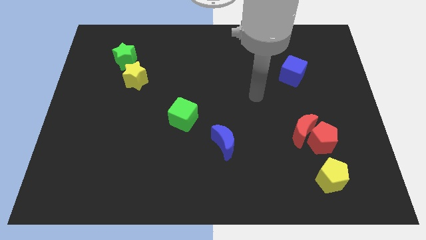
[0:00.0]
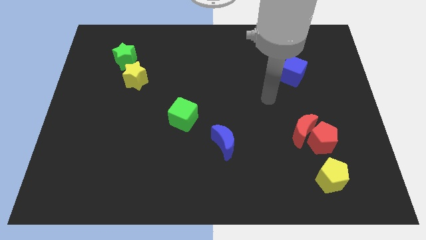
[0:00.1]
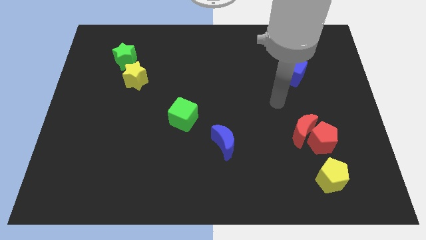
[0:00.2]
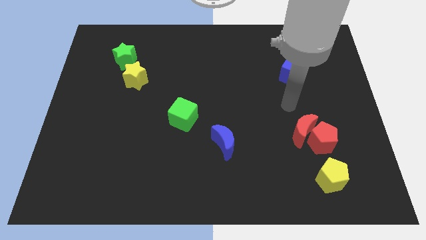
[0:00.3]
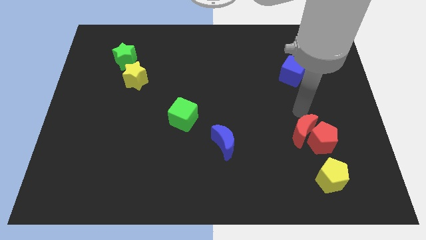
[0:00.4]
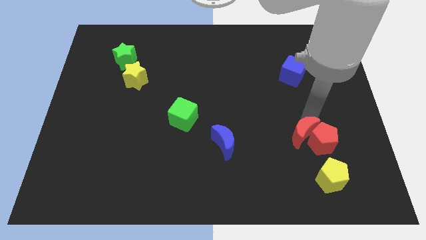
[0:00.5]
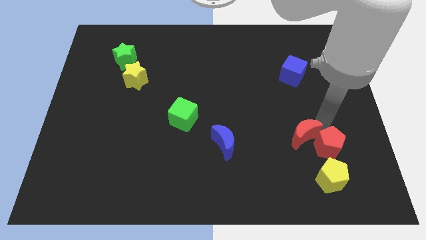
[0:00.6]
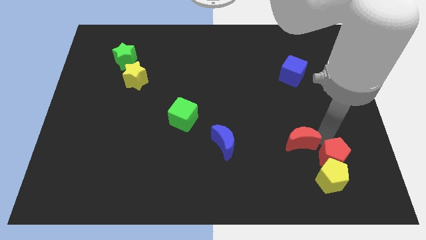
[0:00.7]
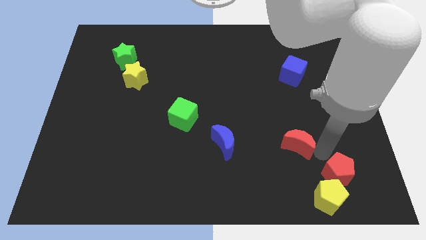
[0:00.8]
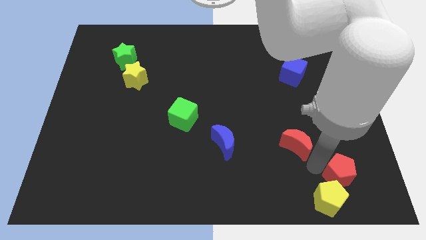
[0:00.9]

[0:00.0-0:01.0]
pull the red moon apart from the red pentagon

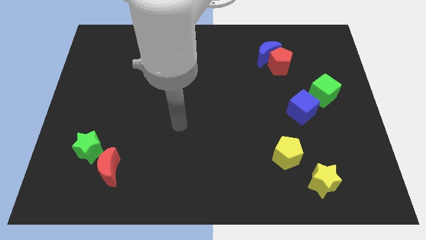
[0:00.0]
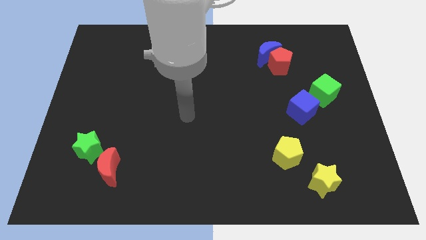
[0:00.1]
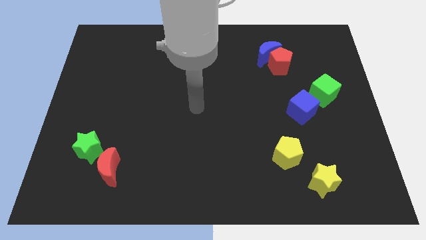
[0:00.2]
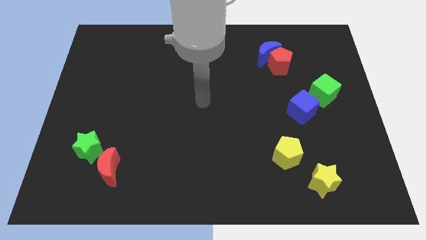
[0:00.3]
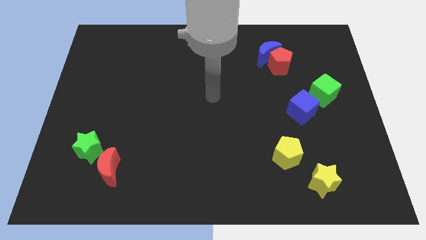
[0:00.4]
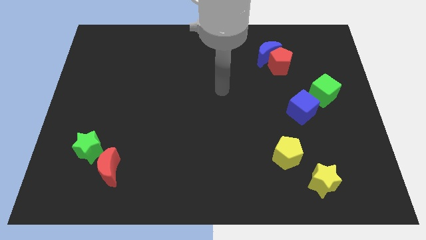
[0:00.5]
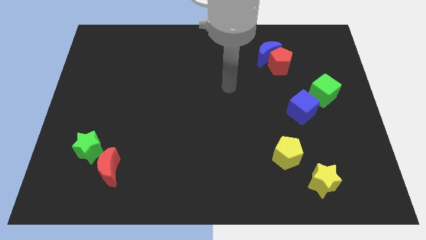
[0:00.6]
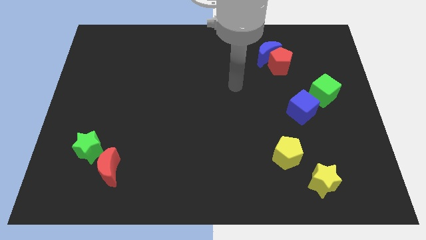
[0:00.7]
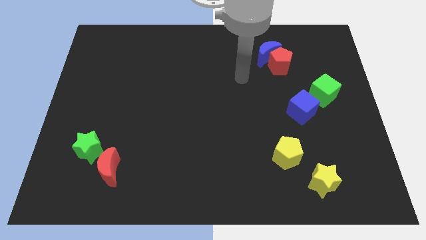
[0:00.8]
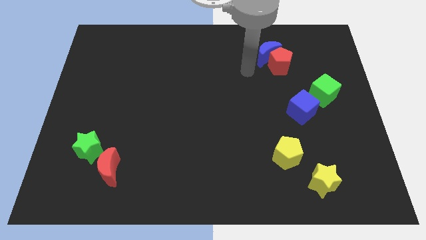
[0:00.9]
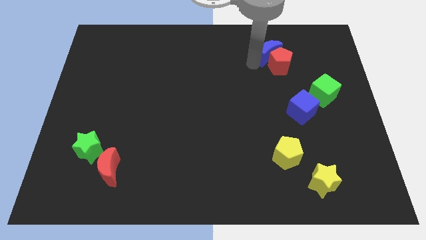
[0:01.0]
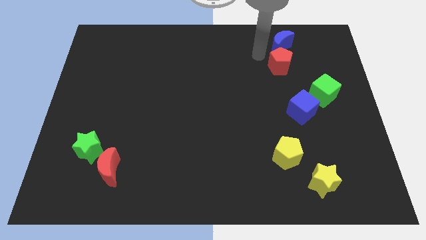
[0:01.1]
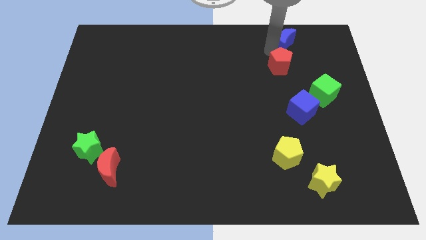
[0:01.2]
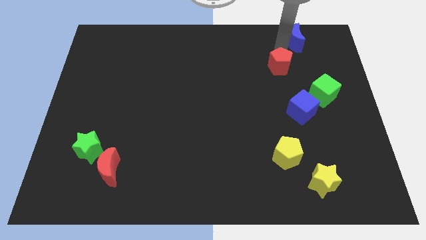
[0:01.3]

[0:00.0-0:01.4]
separate the red pentagon from the blue moon

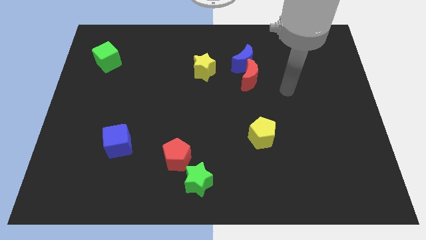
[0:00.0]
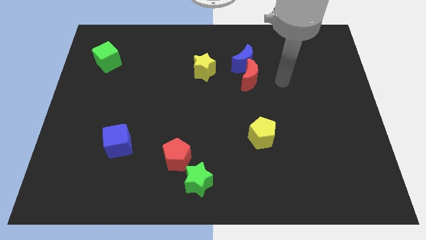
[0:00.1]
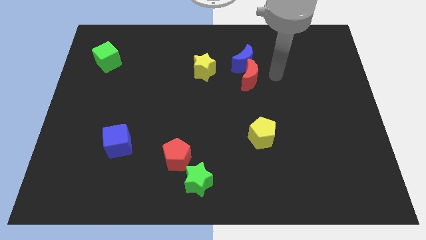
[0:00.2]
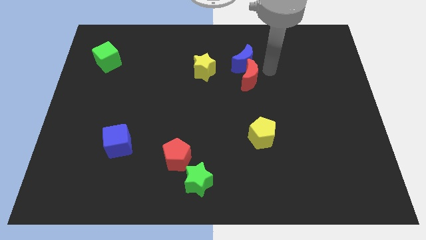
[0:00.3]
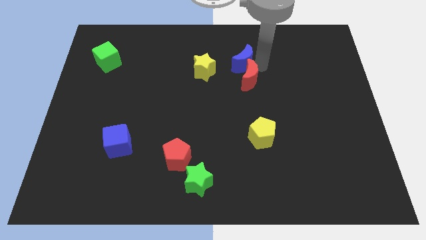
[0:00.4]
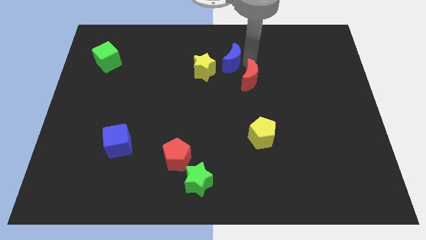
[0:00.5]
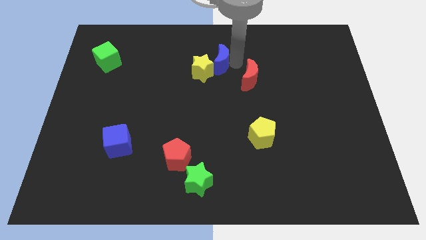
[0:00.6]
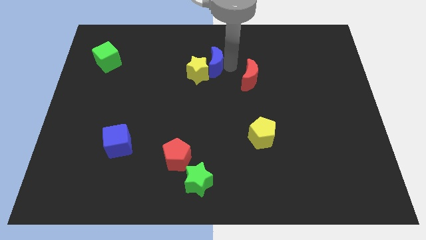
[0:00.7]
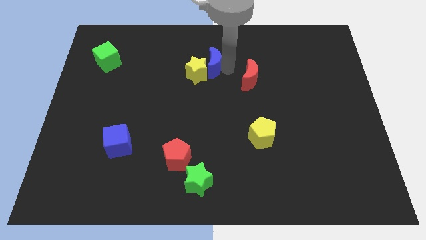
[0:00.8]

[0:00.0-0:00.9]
pull the red moon apart from the blue moon

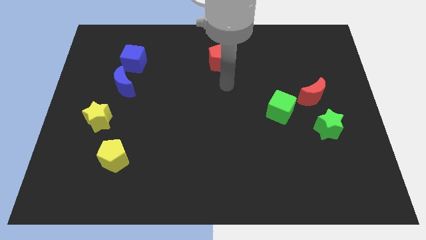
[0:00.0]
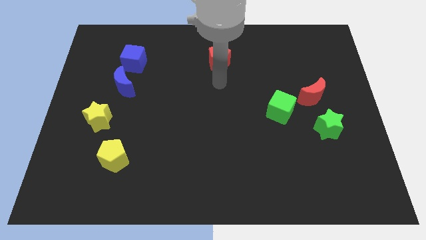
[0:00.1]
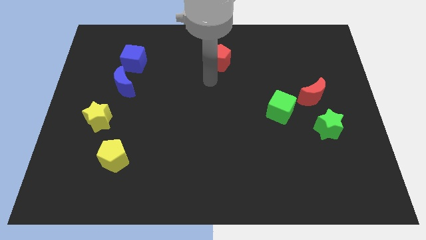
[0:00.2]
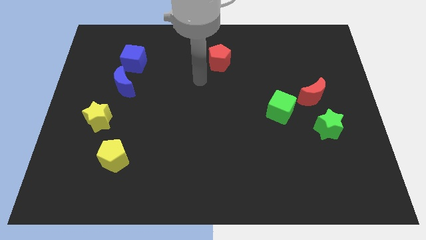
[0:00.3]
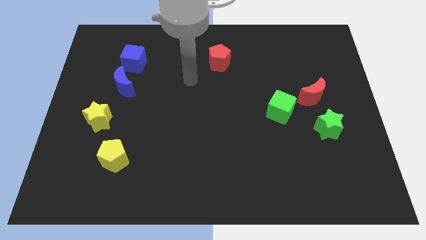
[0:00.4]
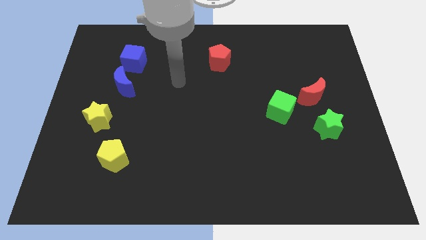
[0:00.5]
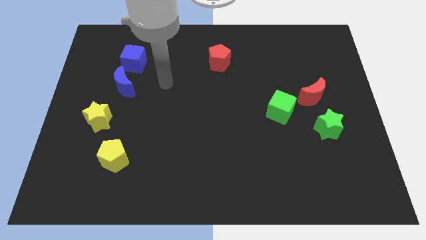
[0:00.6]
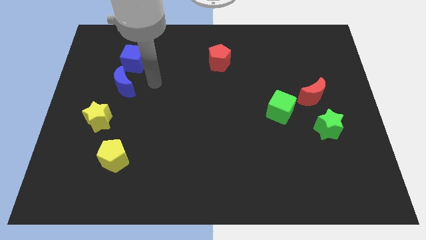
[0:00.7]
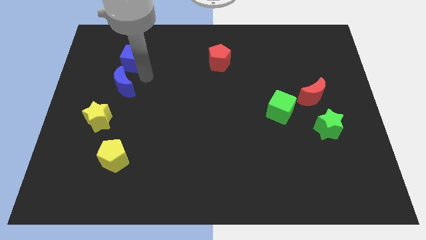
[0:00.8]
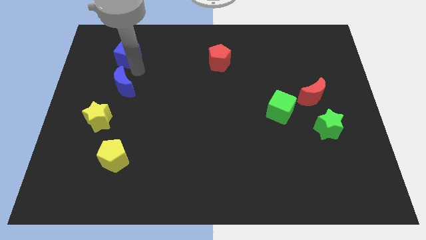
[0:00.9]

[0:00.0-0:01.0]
separate the blue moon from the blue cube

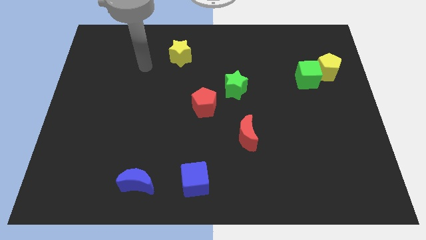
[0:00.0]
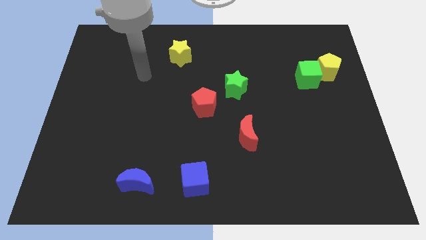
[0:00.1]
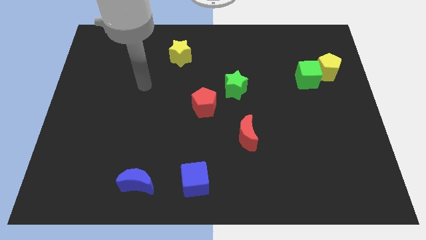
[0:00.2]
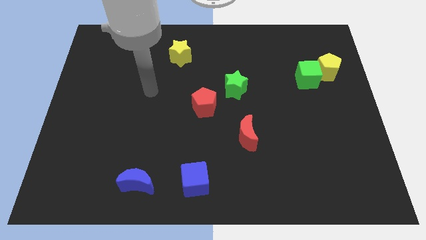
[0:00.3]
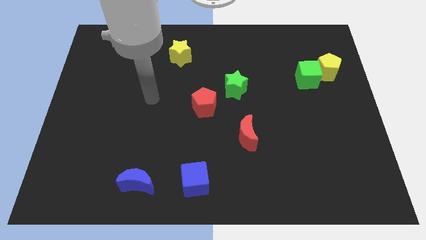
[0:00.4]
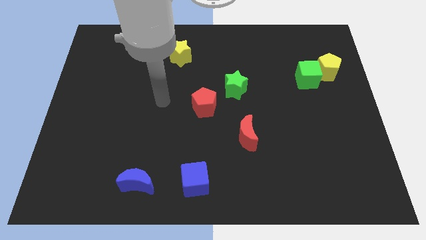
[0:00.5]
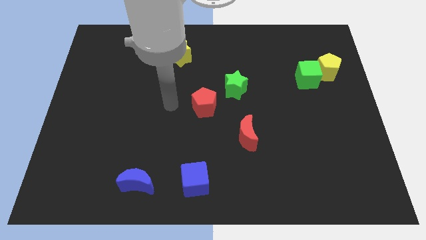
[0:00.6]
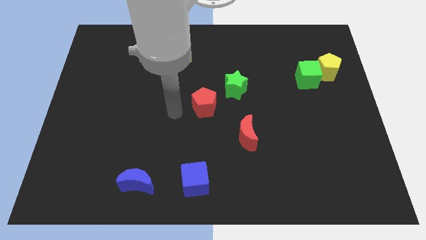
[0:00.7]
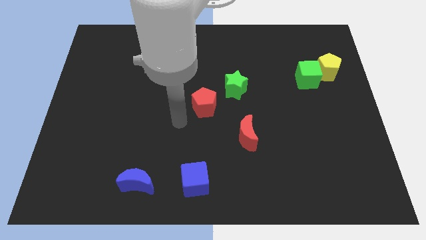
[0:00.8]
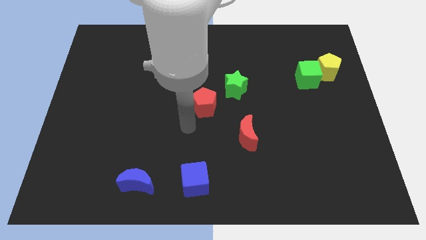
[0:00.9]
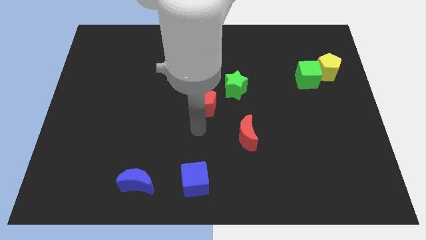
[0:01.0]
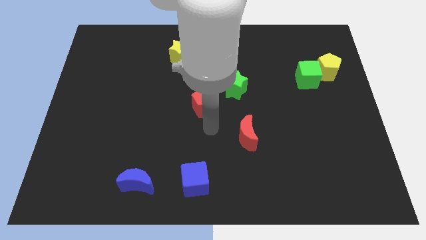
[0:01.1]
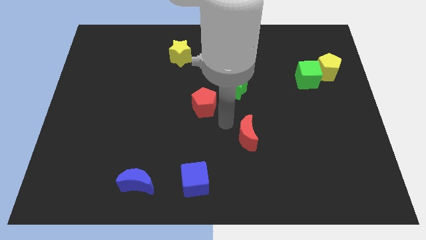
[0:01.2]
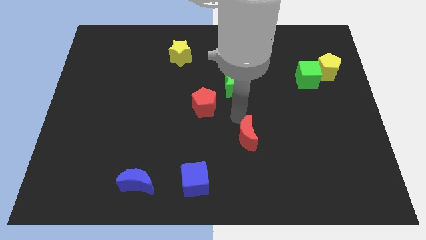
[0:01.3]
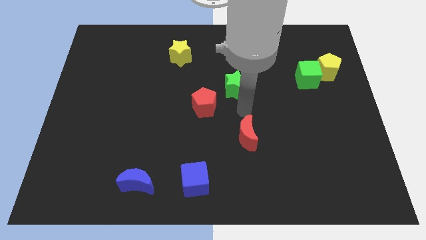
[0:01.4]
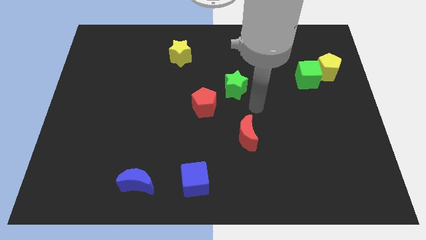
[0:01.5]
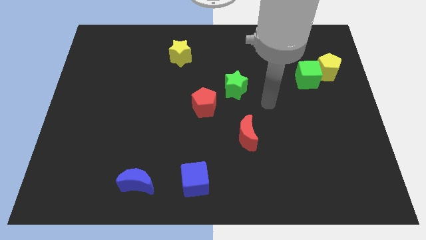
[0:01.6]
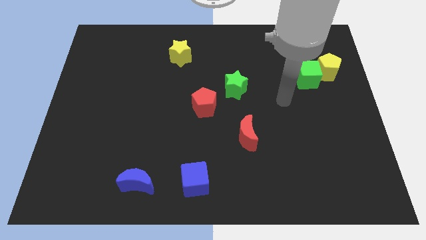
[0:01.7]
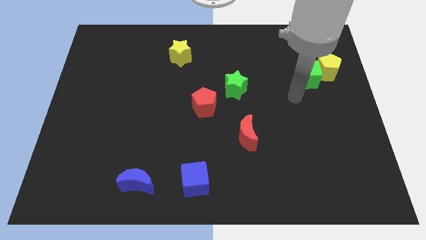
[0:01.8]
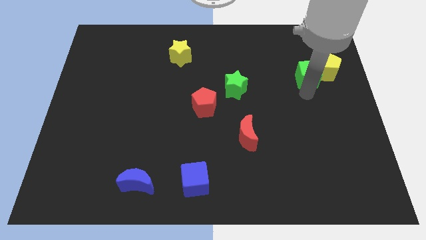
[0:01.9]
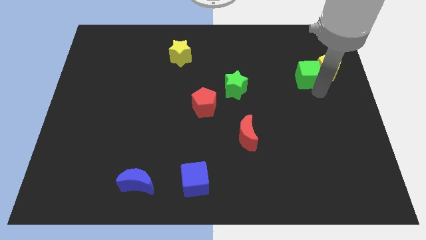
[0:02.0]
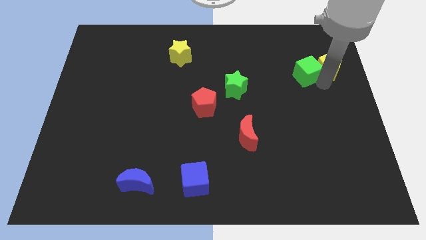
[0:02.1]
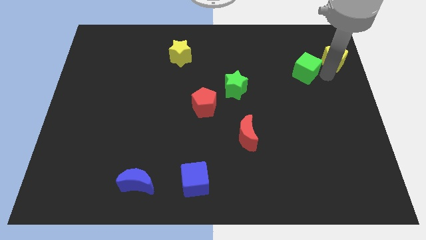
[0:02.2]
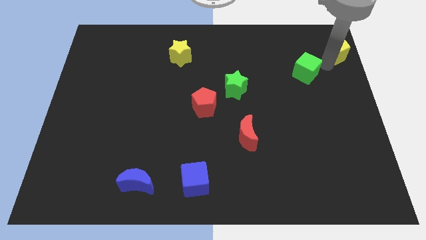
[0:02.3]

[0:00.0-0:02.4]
separate the green cube from the yellow pentagon

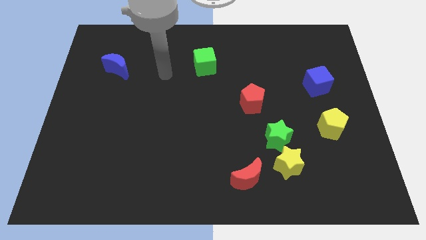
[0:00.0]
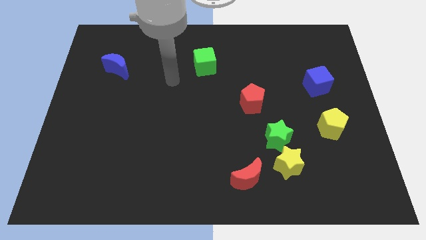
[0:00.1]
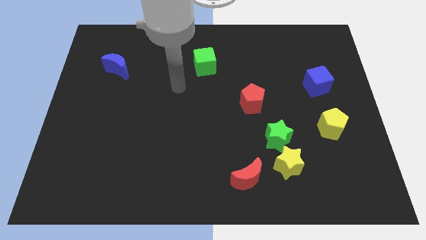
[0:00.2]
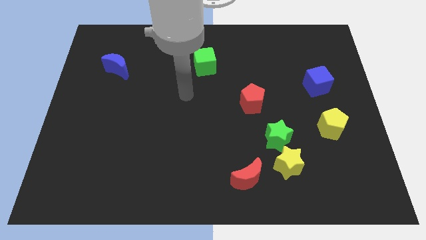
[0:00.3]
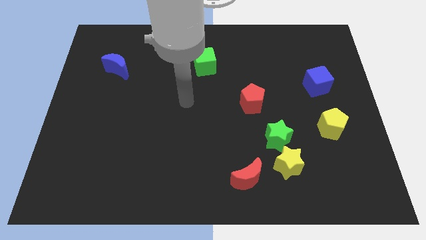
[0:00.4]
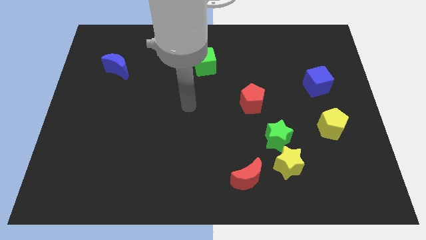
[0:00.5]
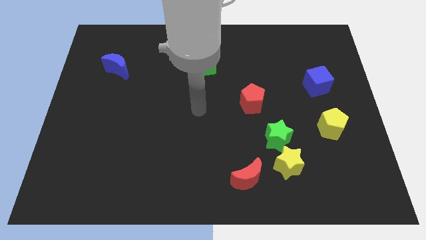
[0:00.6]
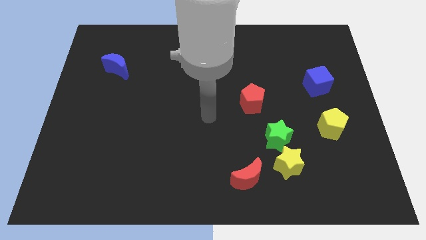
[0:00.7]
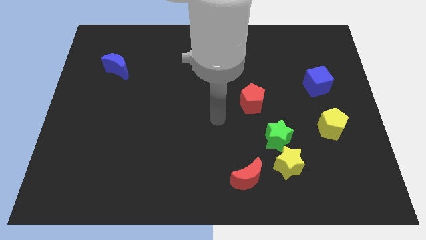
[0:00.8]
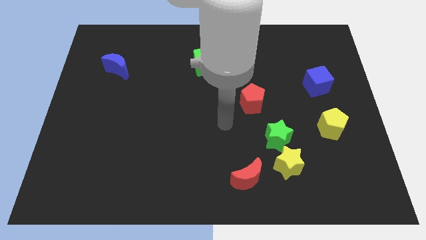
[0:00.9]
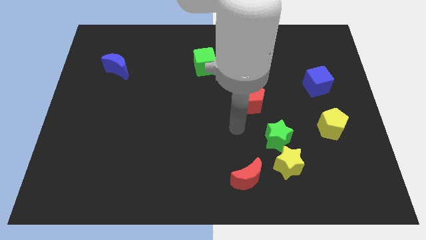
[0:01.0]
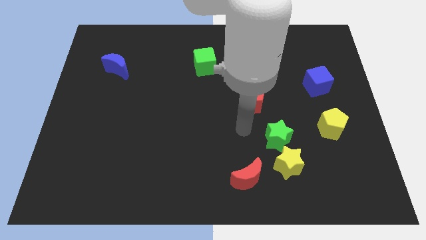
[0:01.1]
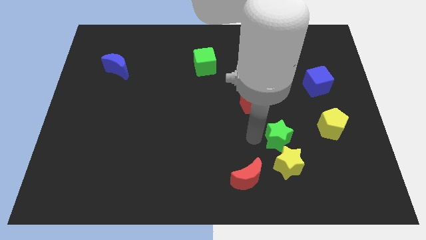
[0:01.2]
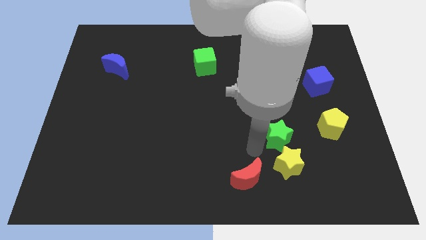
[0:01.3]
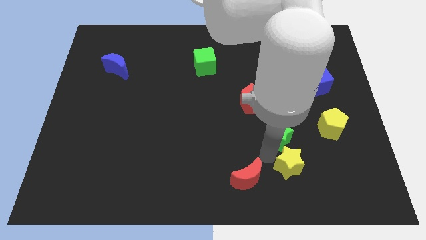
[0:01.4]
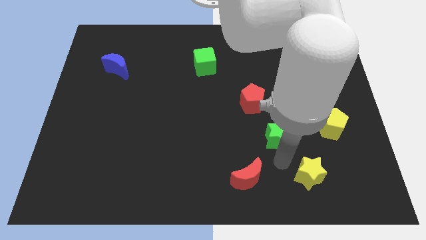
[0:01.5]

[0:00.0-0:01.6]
separate the green star from the yellow star

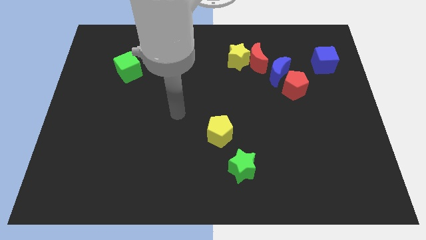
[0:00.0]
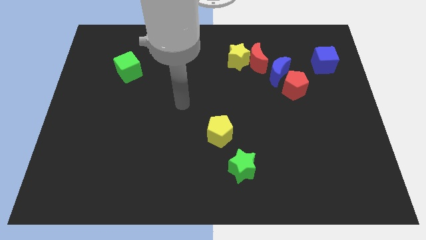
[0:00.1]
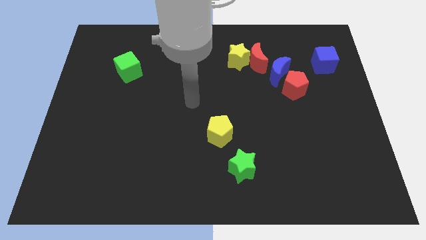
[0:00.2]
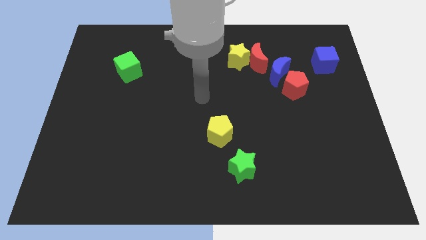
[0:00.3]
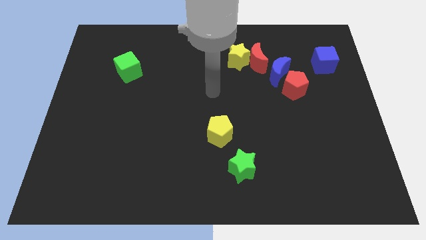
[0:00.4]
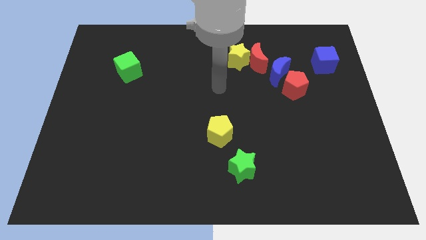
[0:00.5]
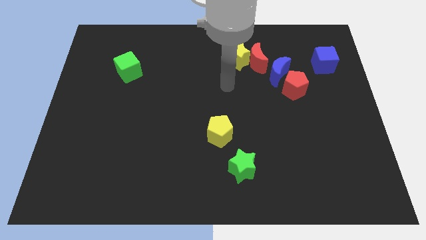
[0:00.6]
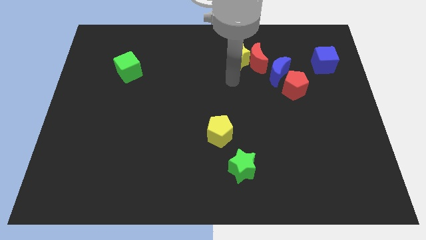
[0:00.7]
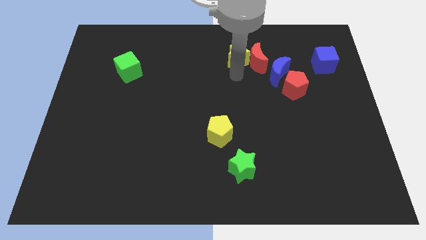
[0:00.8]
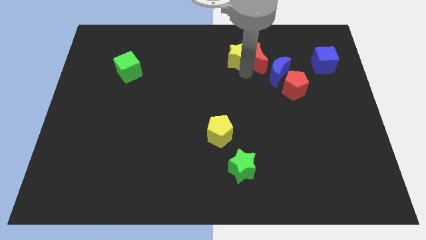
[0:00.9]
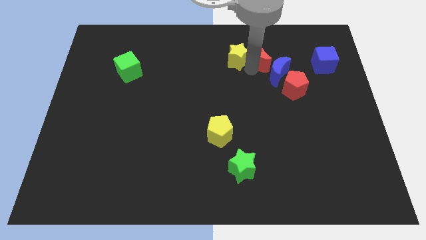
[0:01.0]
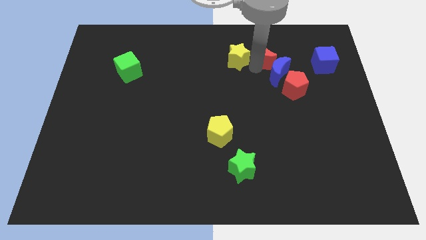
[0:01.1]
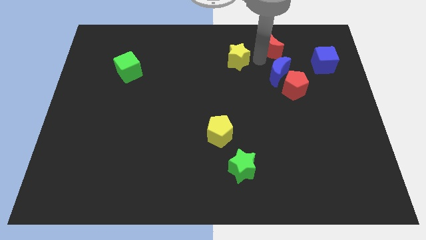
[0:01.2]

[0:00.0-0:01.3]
pull the yellow star apart from the red moon
